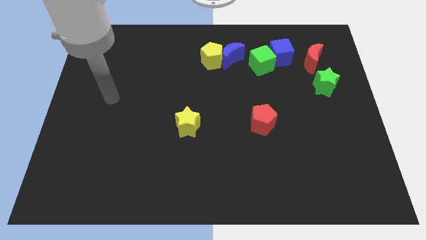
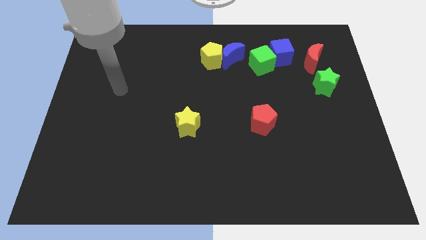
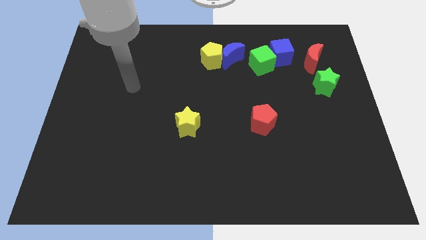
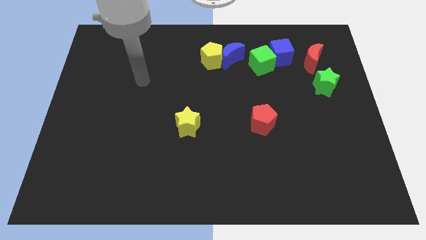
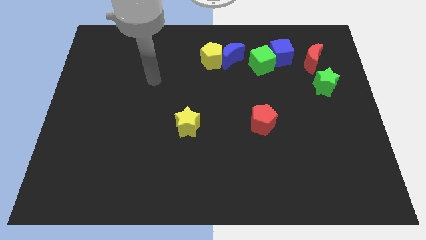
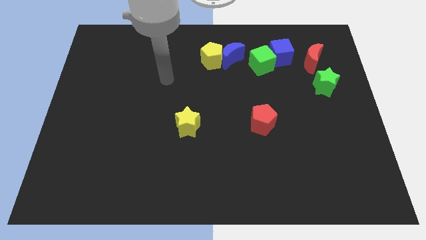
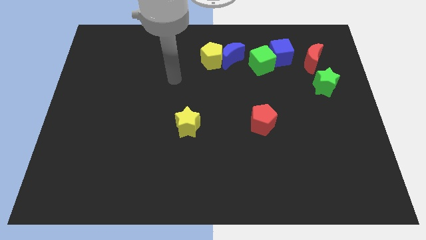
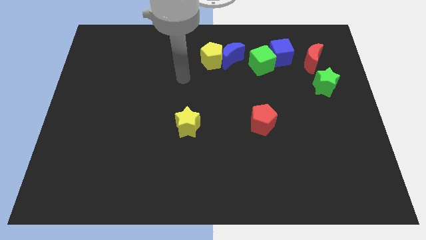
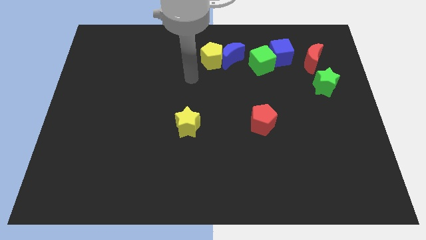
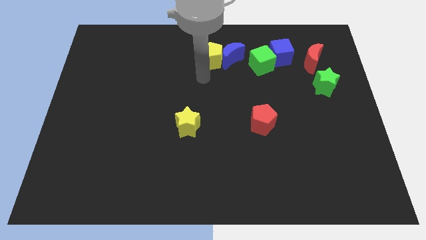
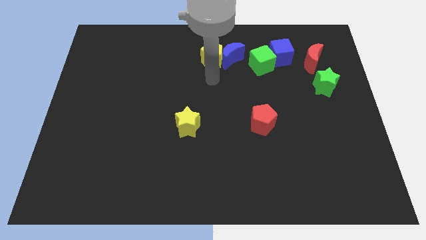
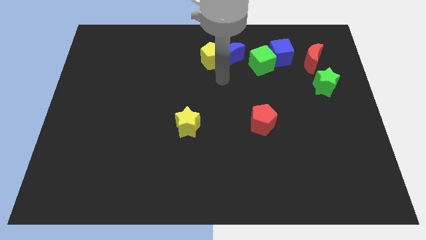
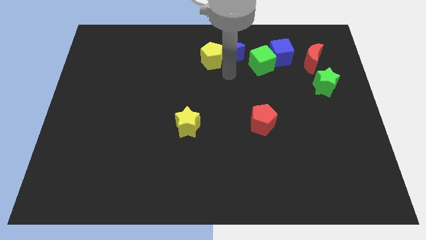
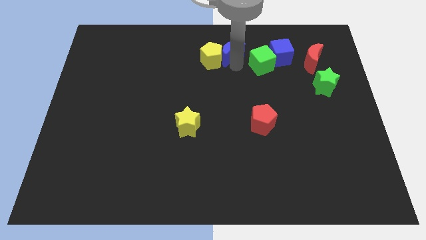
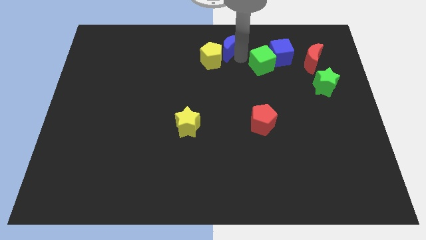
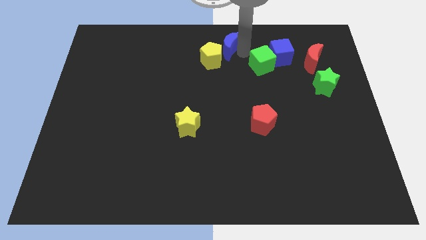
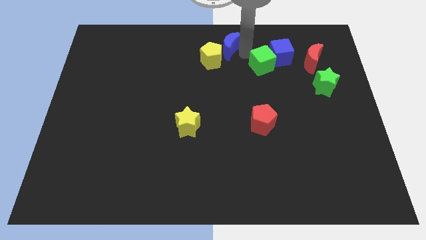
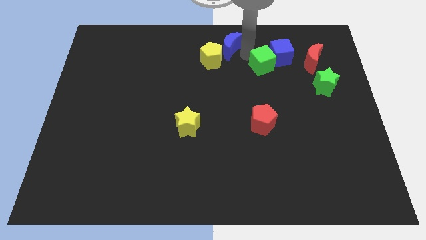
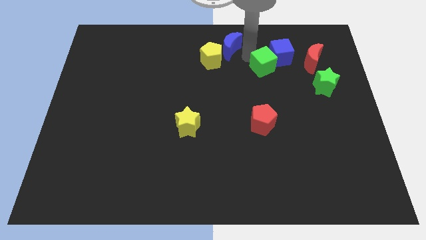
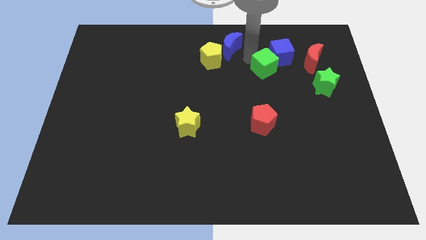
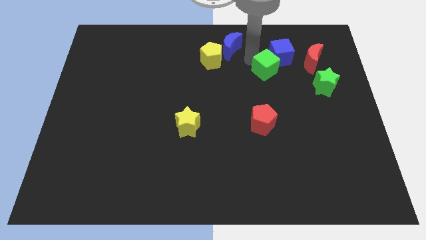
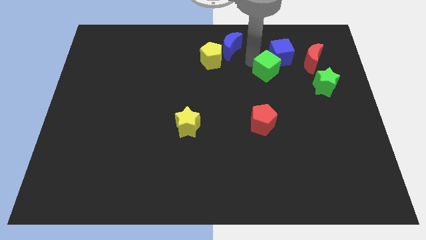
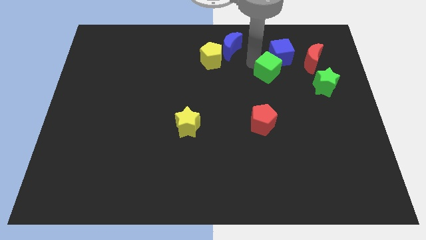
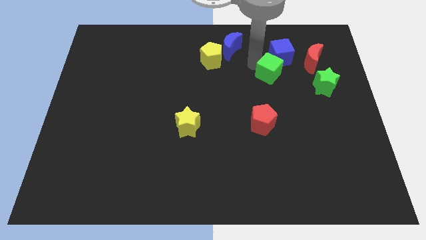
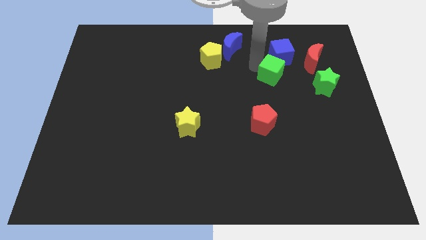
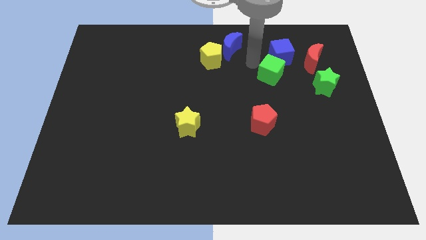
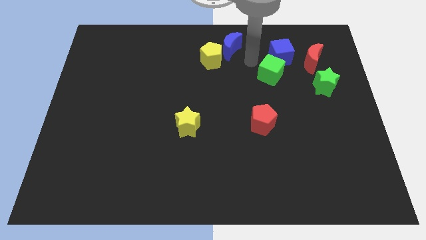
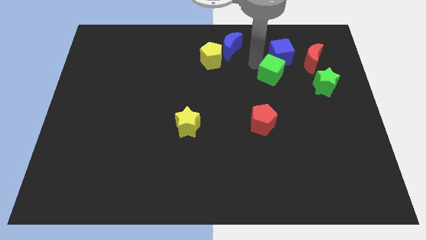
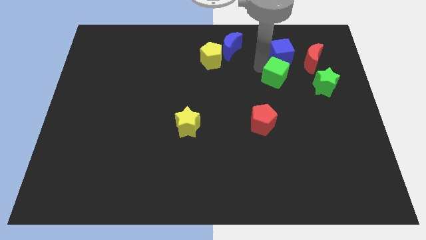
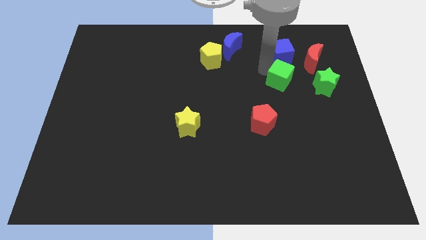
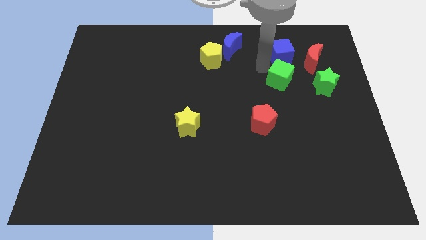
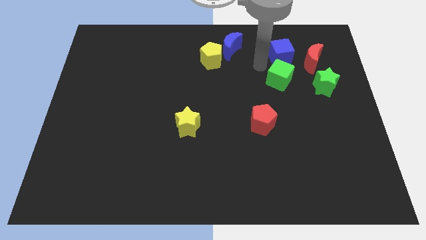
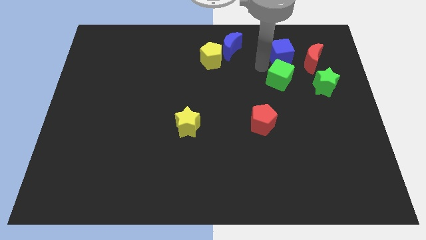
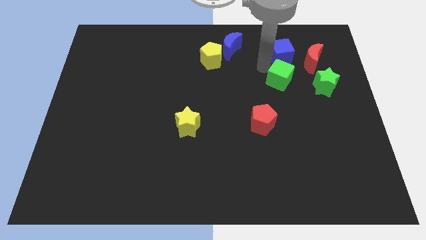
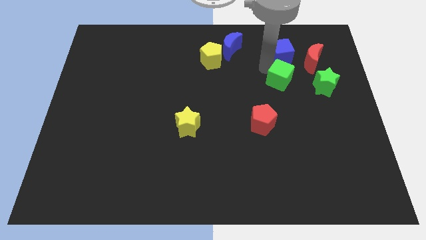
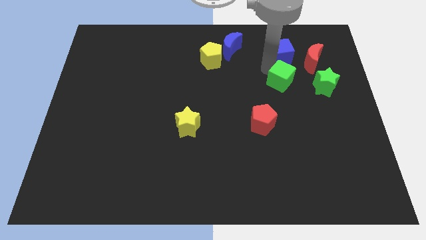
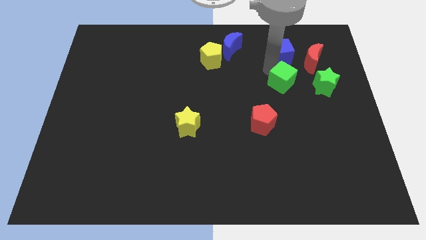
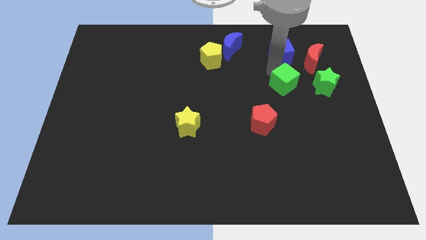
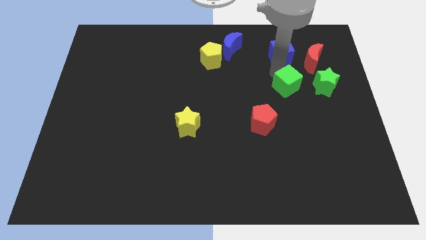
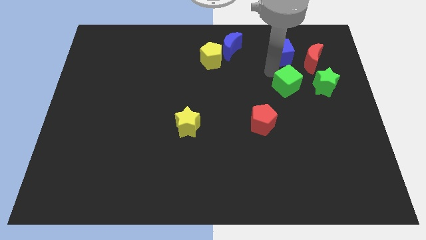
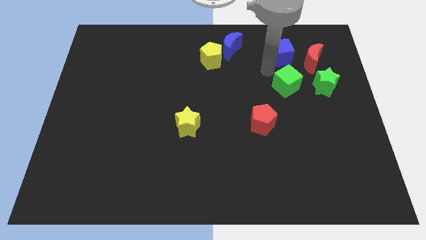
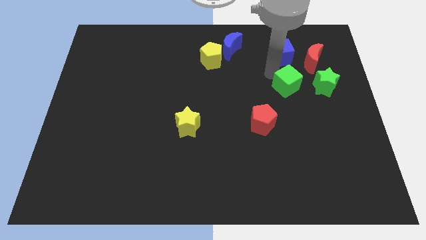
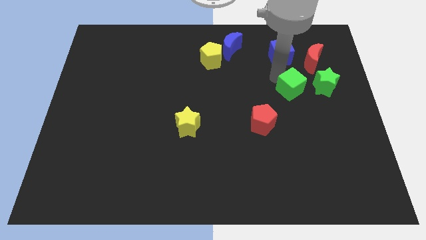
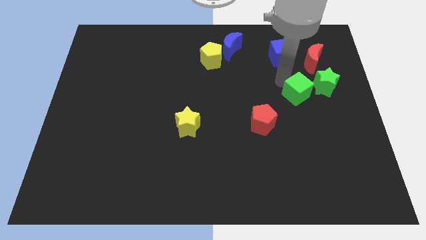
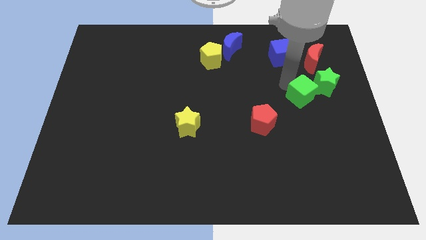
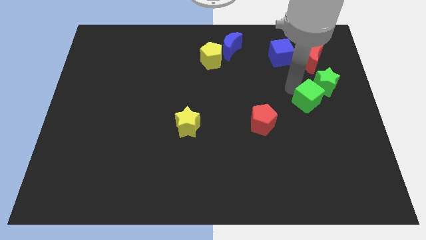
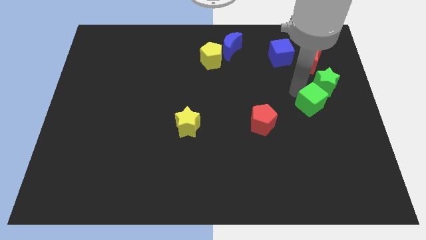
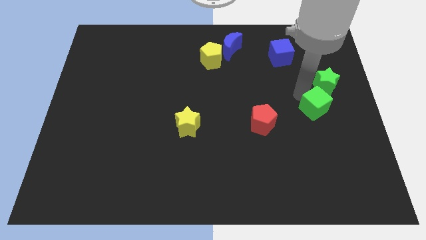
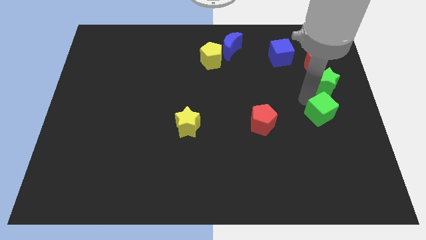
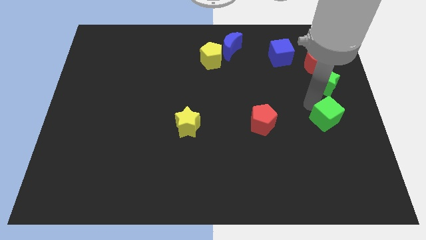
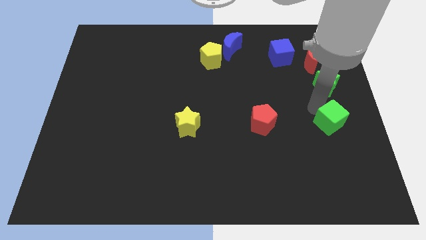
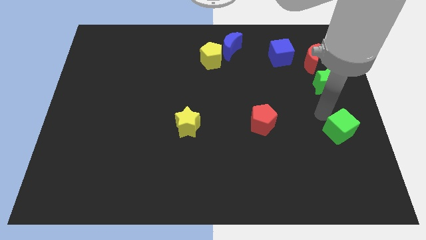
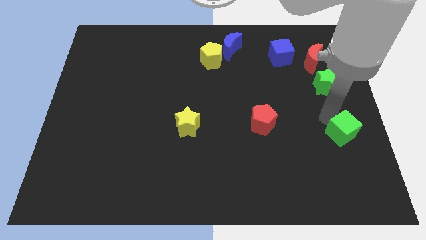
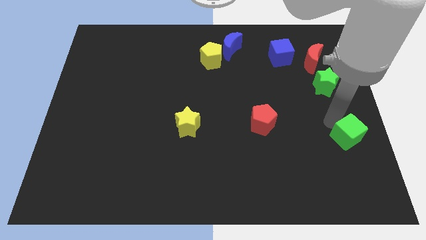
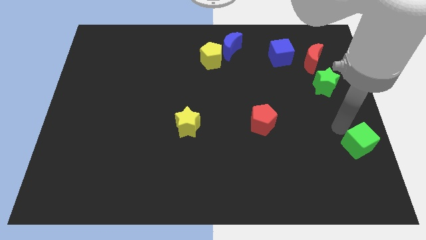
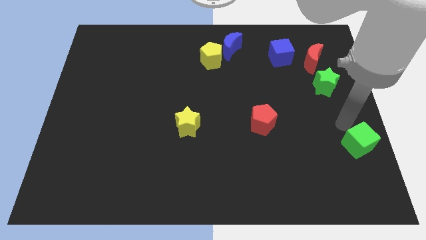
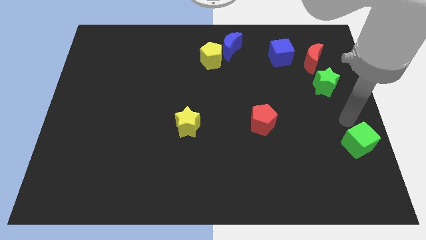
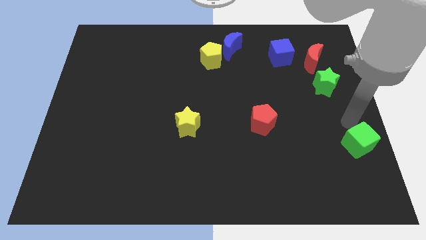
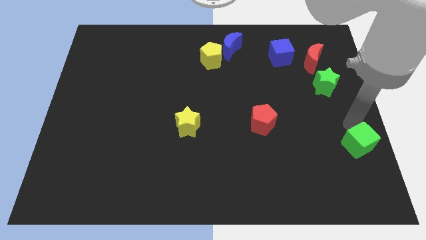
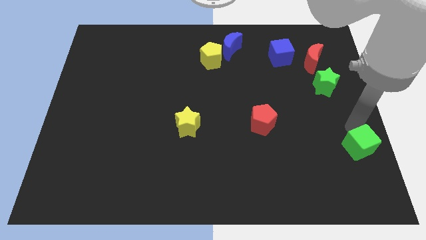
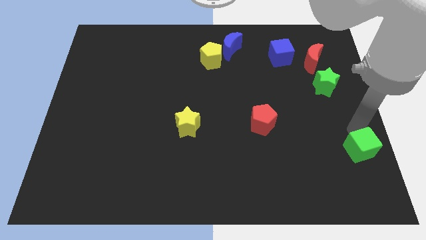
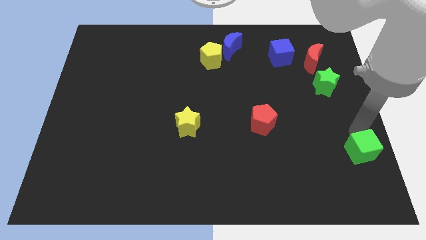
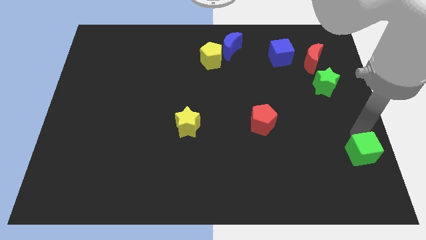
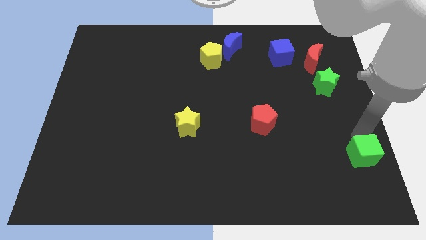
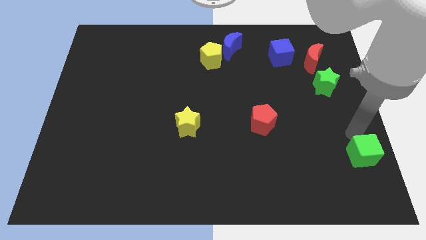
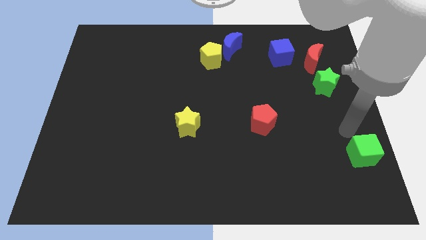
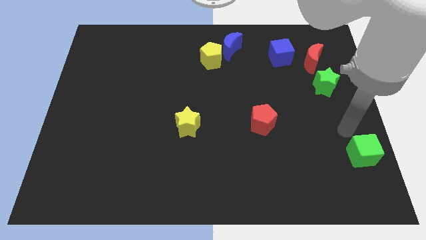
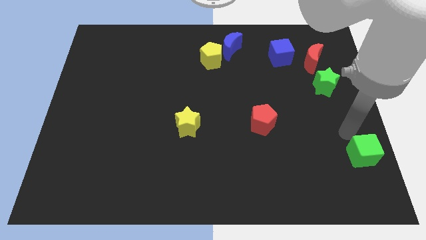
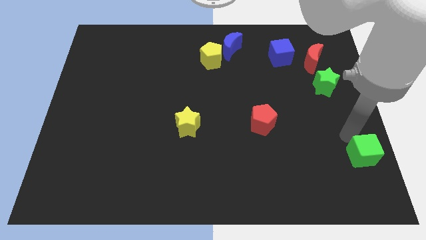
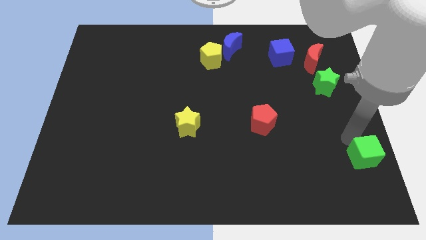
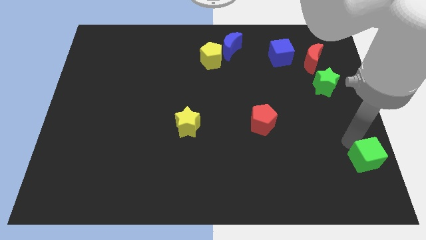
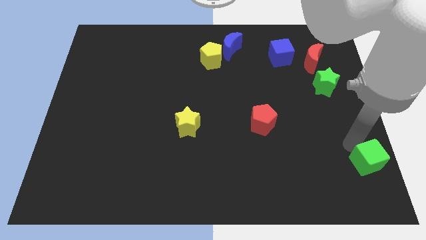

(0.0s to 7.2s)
push the green cube to the bottom right
